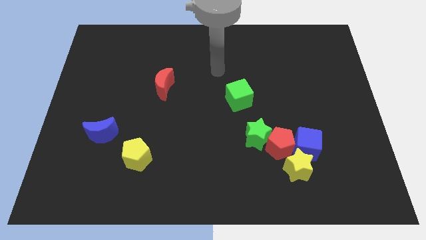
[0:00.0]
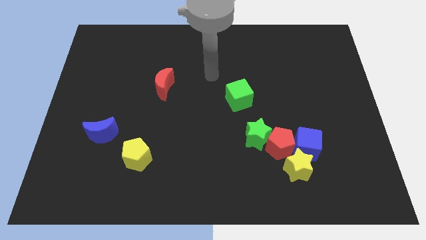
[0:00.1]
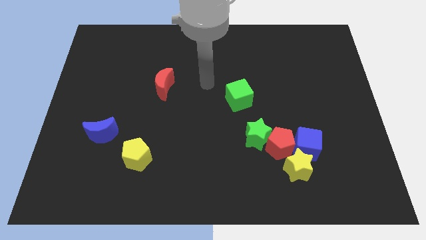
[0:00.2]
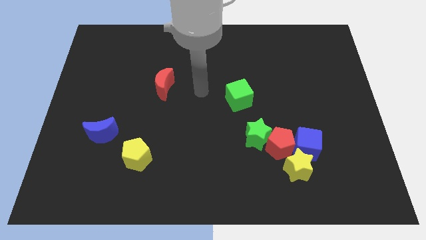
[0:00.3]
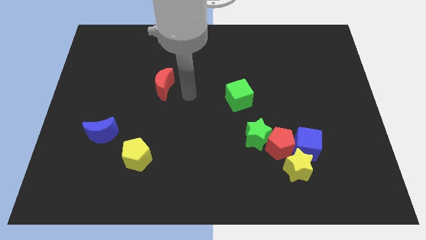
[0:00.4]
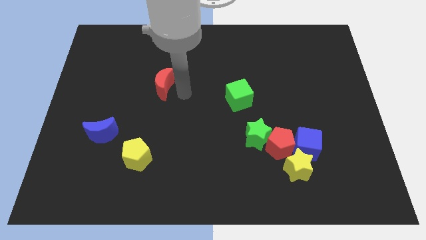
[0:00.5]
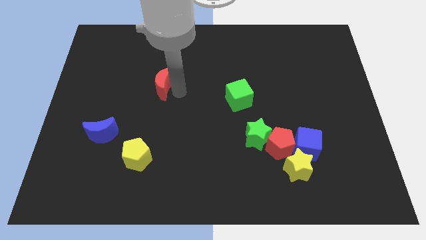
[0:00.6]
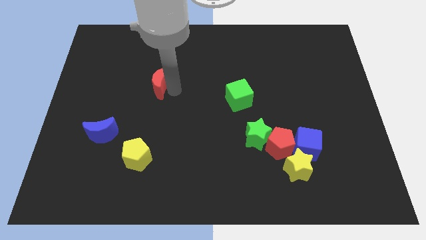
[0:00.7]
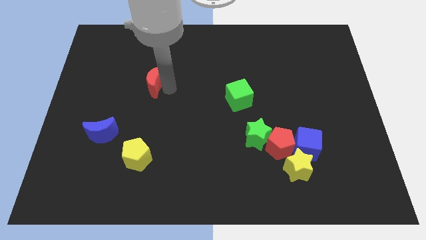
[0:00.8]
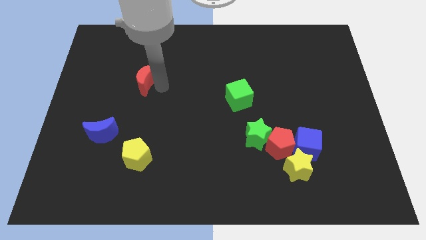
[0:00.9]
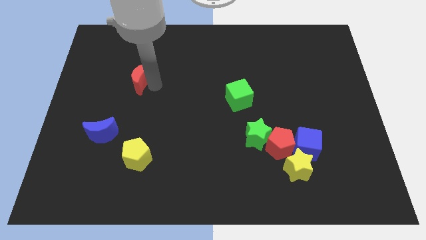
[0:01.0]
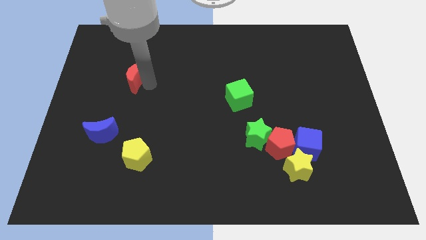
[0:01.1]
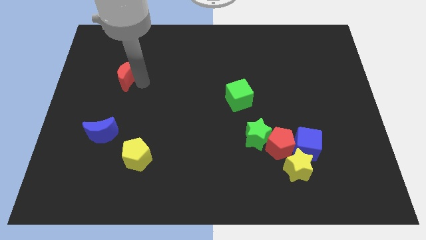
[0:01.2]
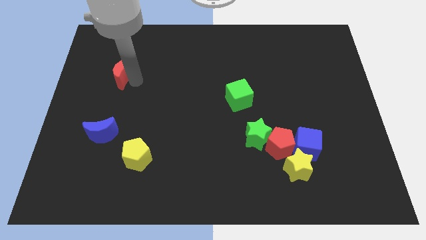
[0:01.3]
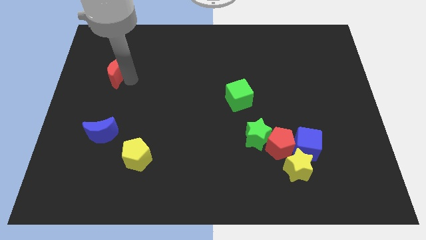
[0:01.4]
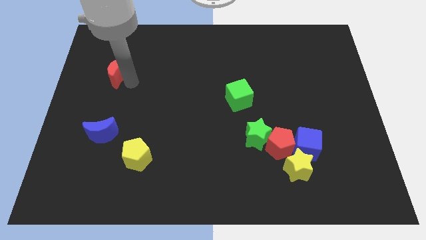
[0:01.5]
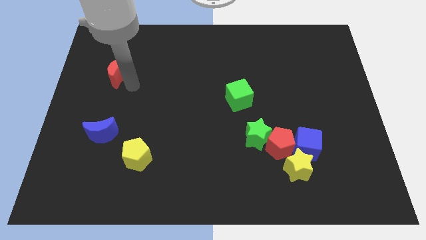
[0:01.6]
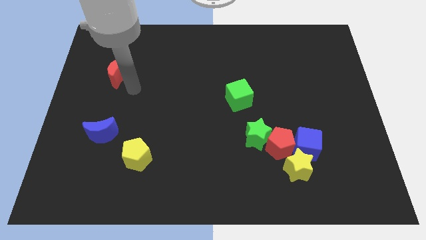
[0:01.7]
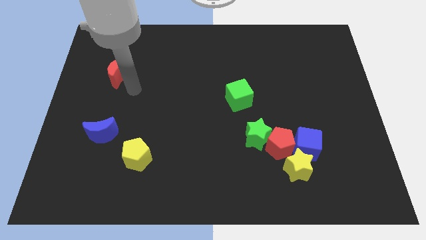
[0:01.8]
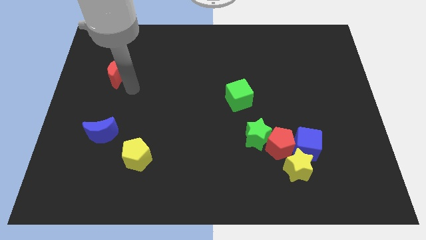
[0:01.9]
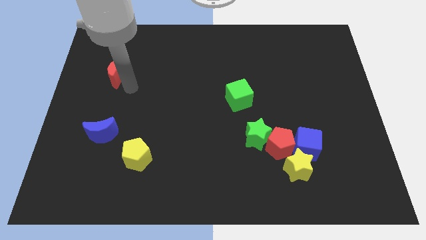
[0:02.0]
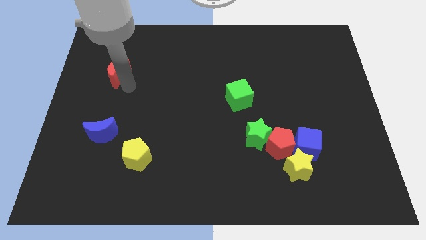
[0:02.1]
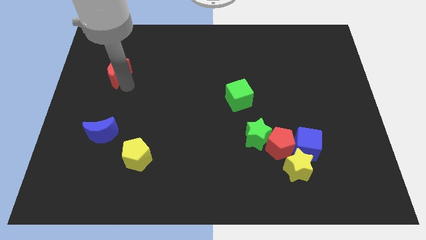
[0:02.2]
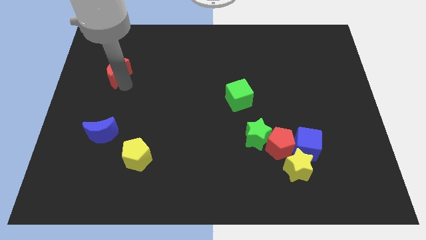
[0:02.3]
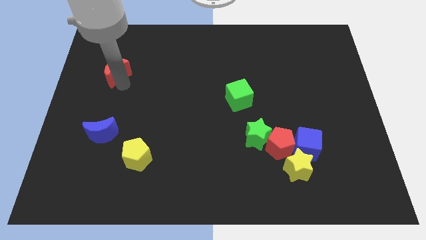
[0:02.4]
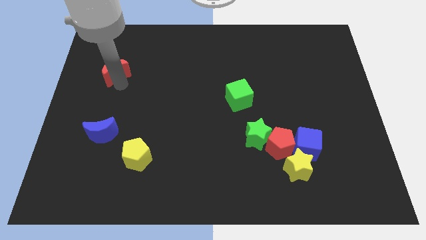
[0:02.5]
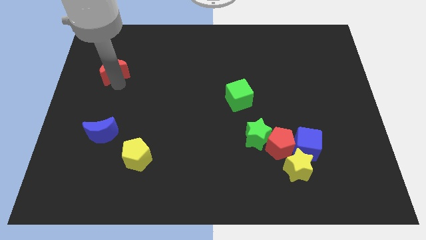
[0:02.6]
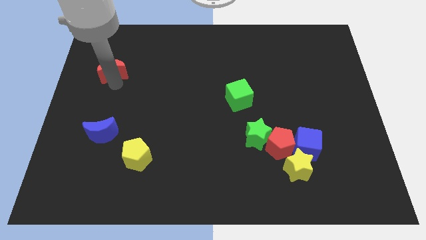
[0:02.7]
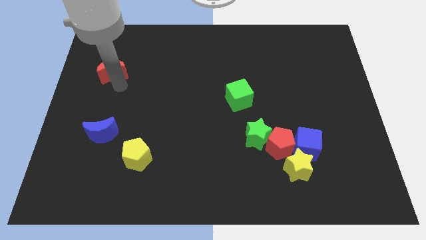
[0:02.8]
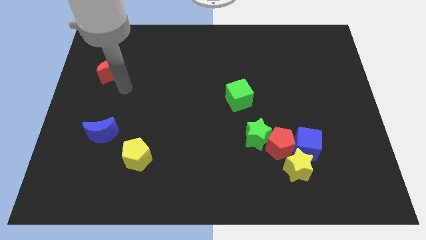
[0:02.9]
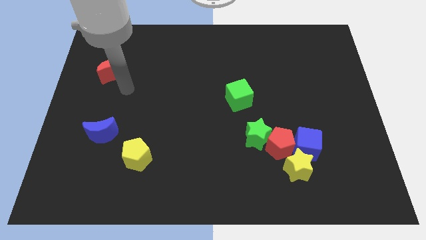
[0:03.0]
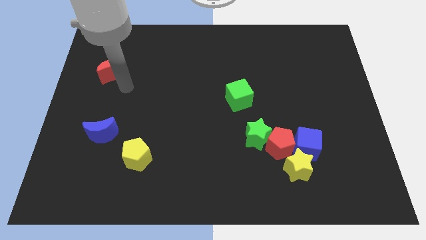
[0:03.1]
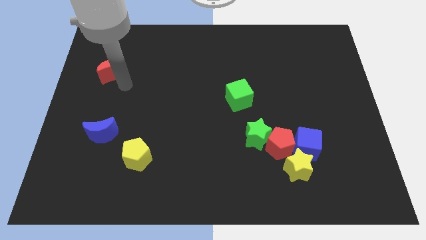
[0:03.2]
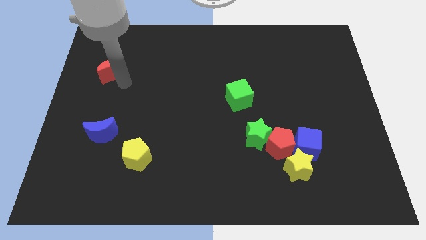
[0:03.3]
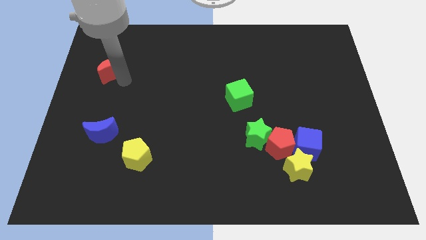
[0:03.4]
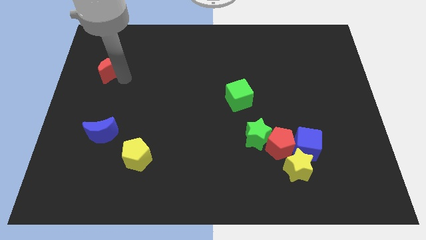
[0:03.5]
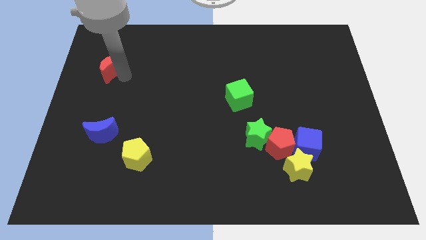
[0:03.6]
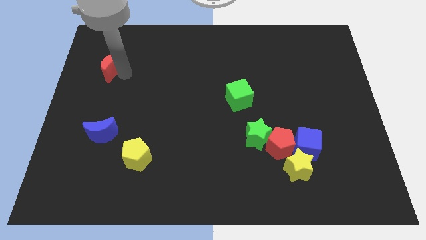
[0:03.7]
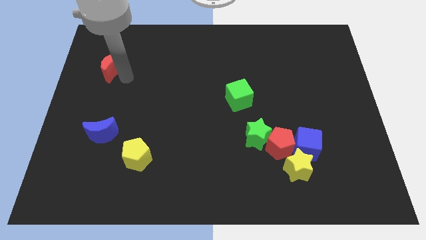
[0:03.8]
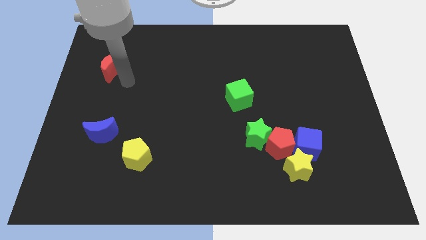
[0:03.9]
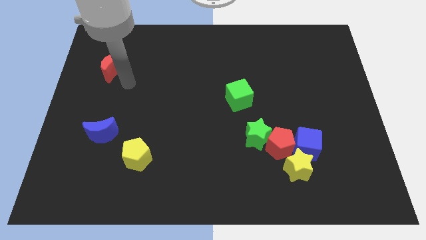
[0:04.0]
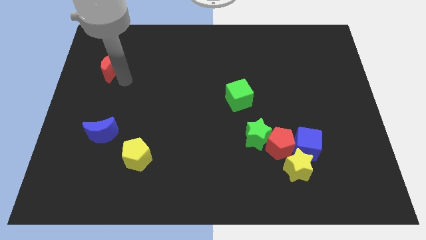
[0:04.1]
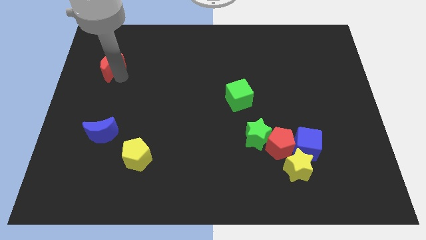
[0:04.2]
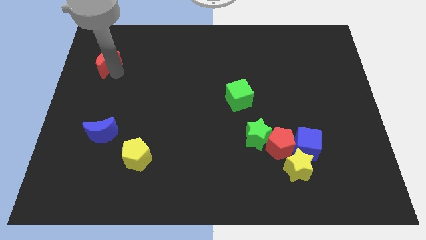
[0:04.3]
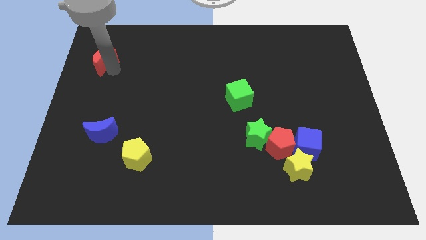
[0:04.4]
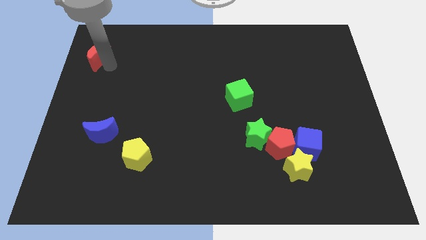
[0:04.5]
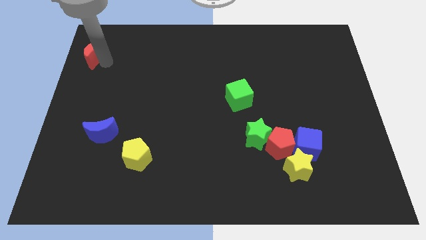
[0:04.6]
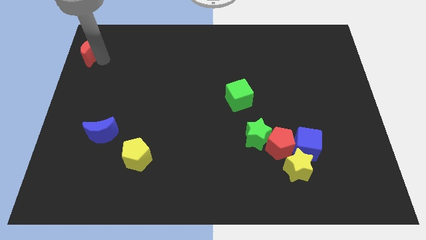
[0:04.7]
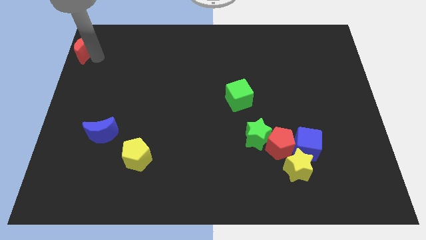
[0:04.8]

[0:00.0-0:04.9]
put the red moon to the top left

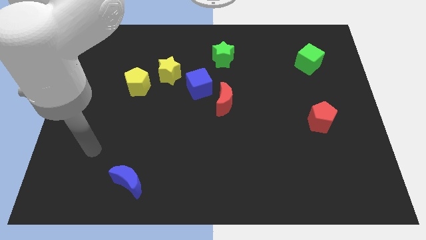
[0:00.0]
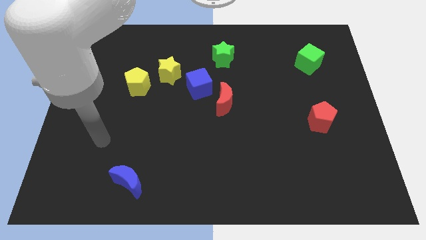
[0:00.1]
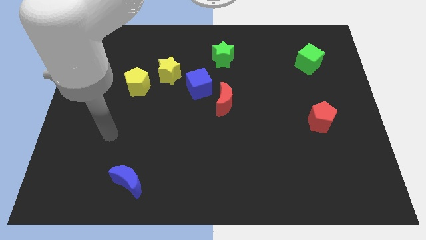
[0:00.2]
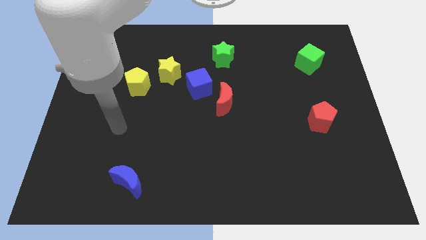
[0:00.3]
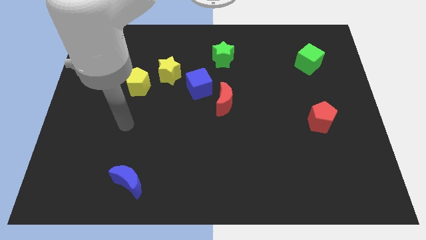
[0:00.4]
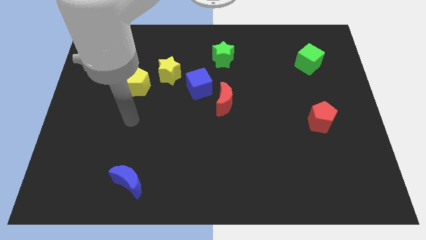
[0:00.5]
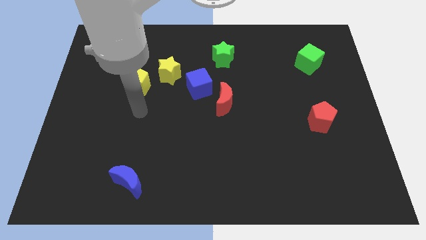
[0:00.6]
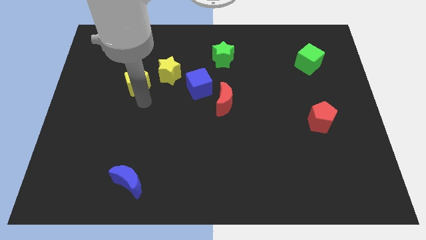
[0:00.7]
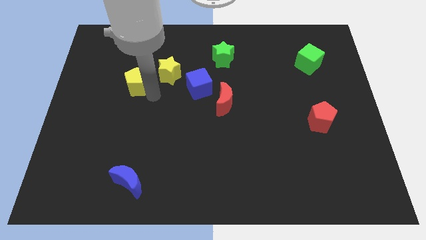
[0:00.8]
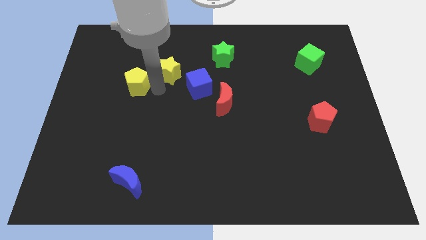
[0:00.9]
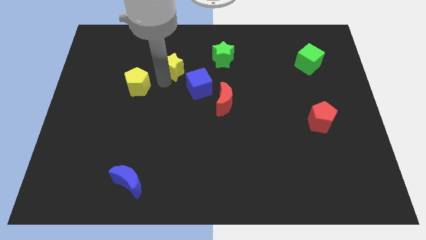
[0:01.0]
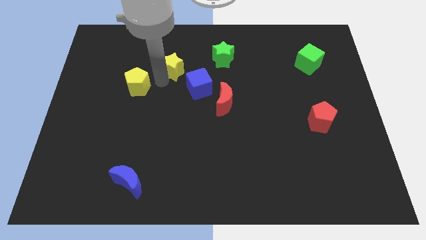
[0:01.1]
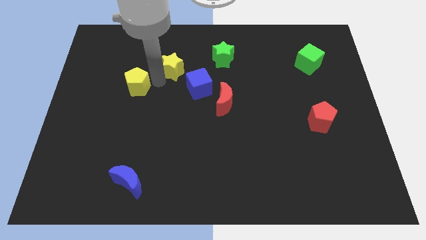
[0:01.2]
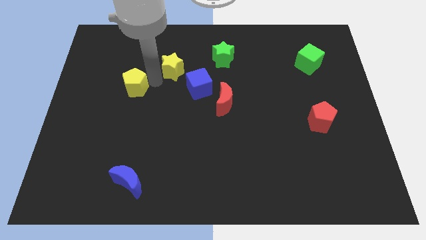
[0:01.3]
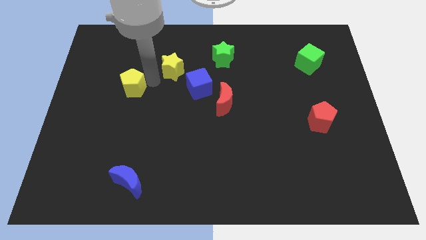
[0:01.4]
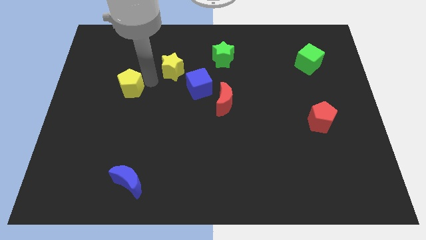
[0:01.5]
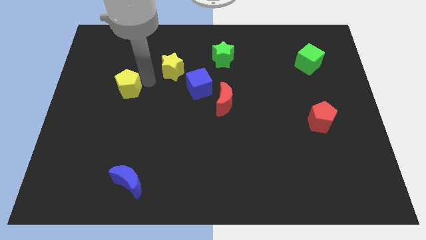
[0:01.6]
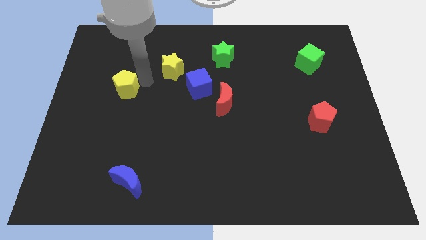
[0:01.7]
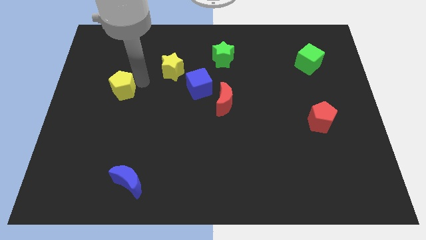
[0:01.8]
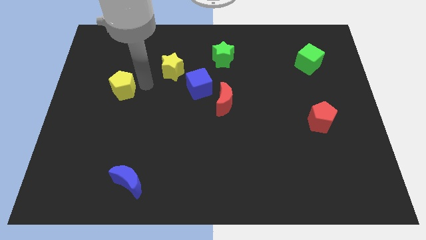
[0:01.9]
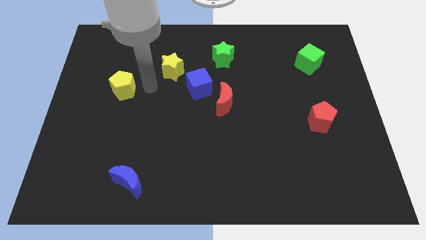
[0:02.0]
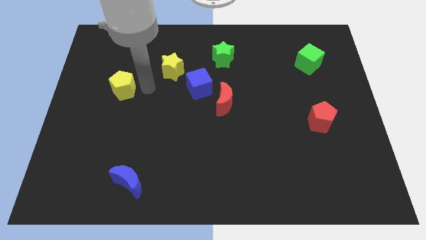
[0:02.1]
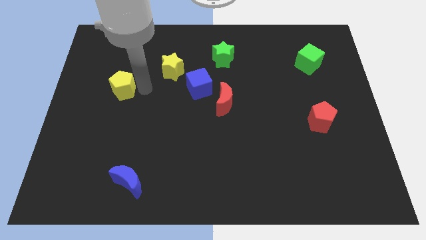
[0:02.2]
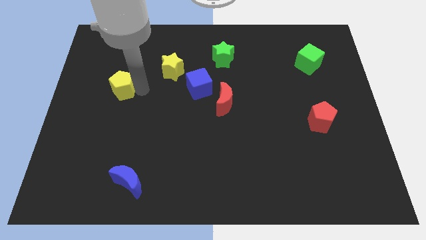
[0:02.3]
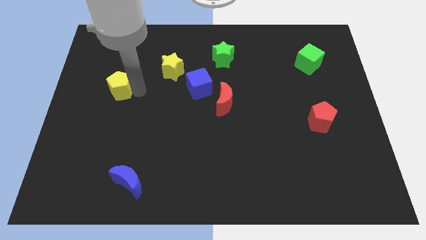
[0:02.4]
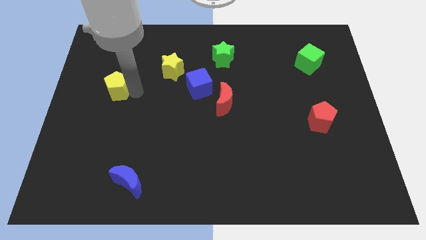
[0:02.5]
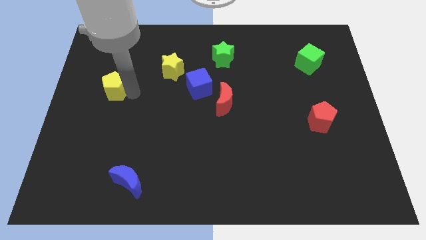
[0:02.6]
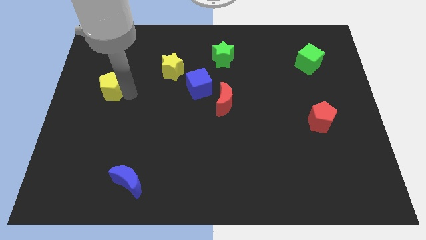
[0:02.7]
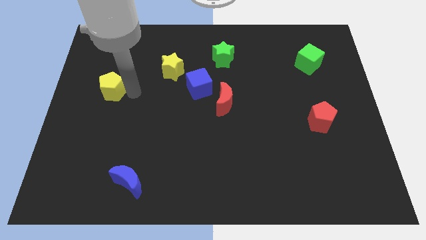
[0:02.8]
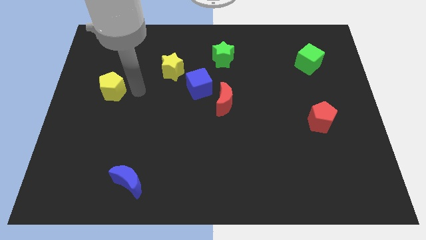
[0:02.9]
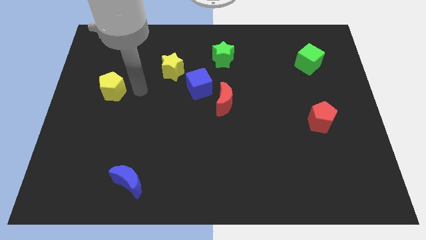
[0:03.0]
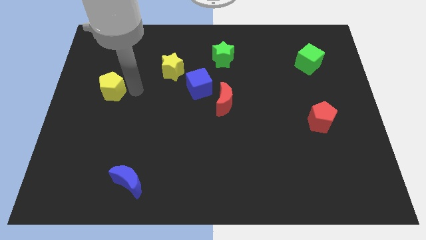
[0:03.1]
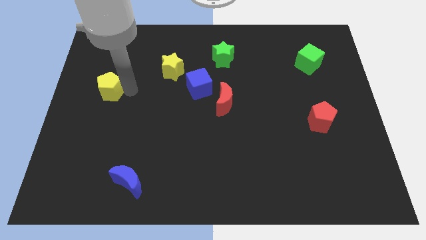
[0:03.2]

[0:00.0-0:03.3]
slide the yellow pentagon to the left side
